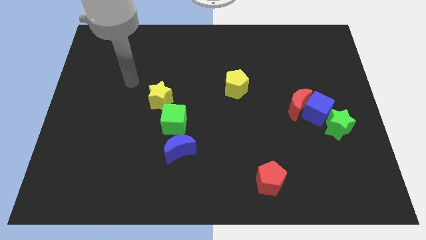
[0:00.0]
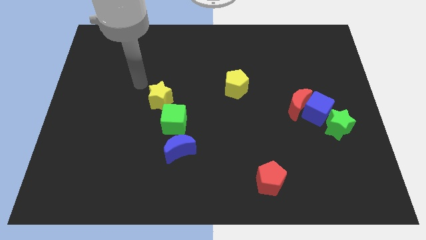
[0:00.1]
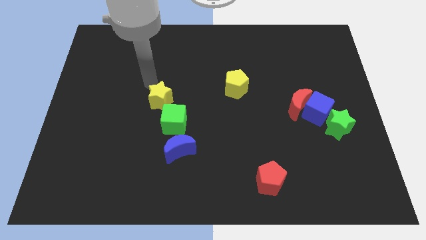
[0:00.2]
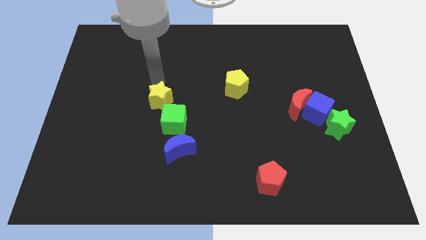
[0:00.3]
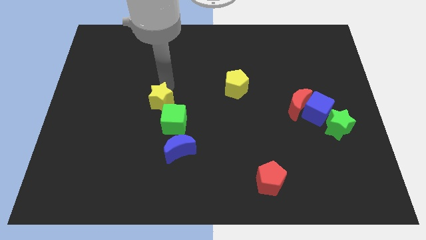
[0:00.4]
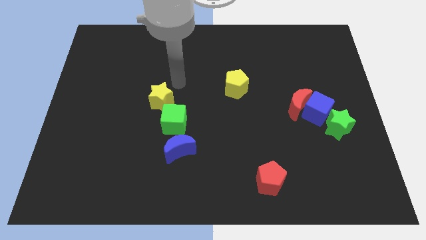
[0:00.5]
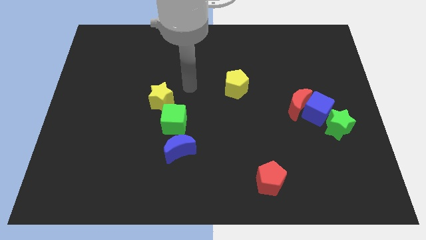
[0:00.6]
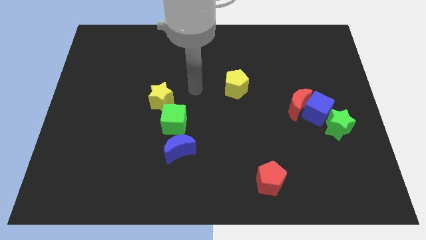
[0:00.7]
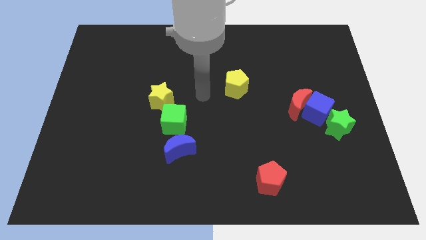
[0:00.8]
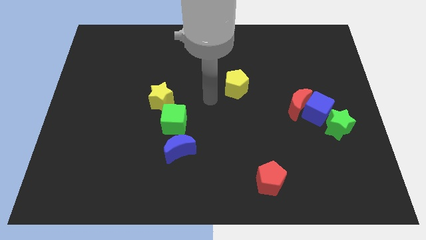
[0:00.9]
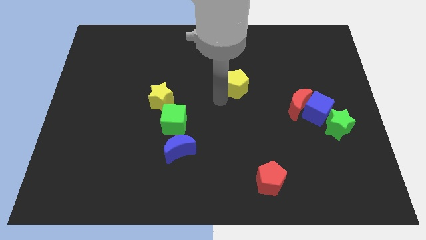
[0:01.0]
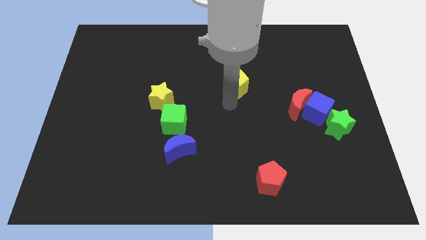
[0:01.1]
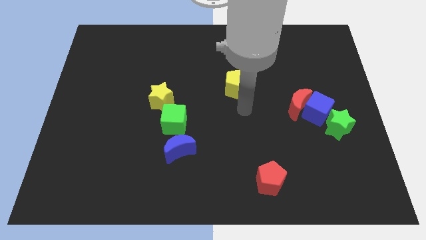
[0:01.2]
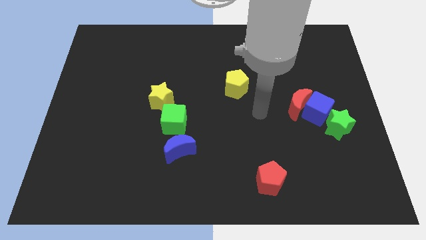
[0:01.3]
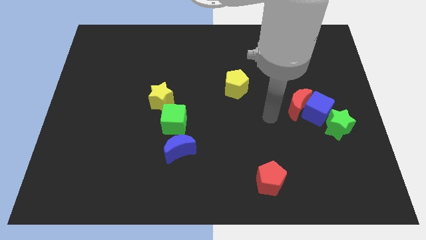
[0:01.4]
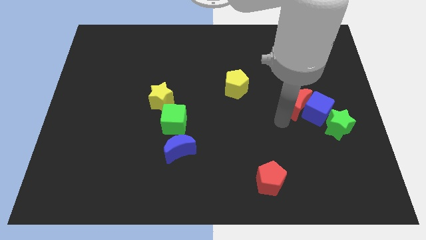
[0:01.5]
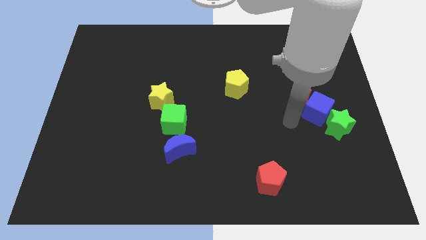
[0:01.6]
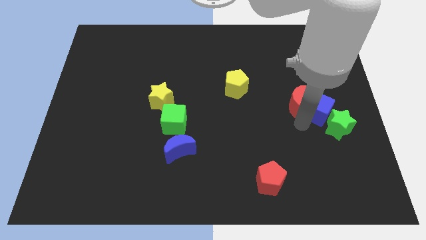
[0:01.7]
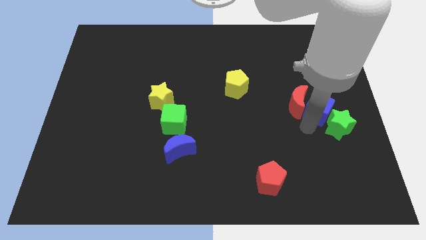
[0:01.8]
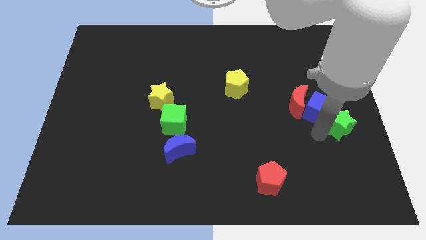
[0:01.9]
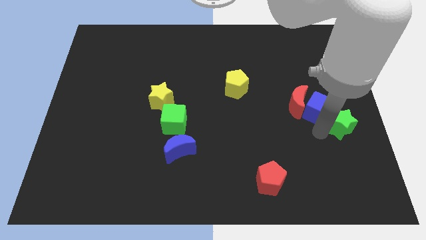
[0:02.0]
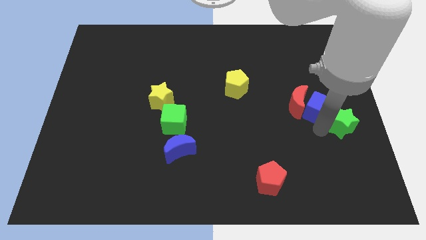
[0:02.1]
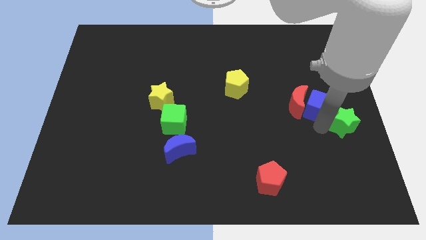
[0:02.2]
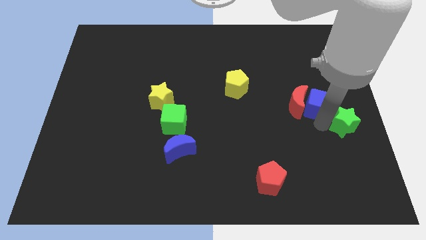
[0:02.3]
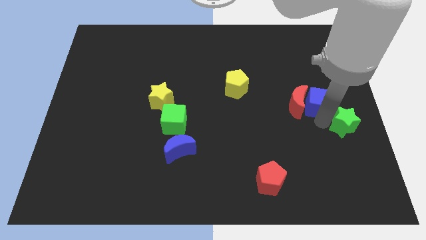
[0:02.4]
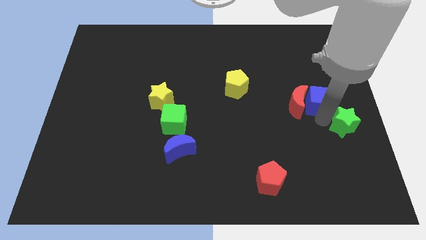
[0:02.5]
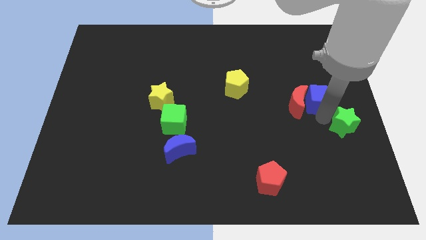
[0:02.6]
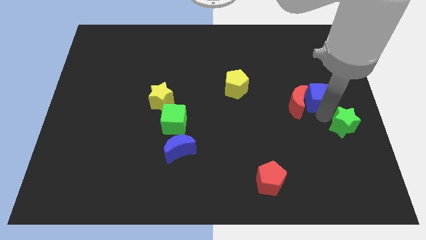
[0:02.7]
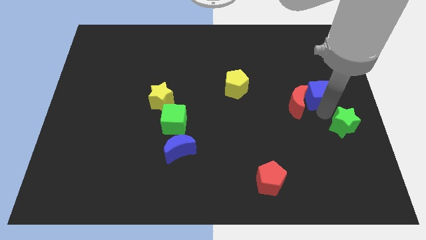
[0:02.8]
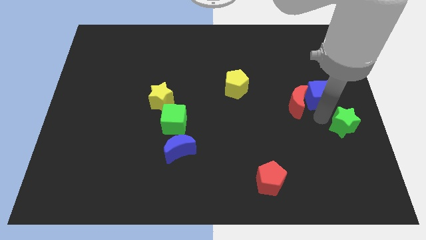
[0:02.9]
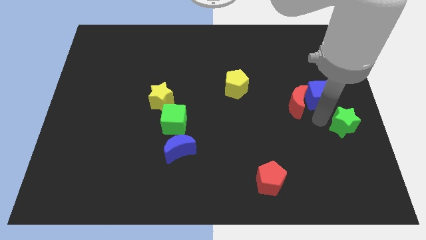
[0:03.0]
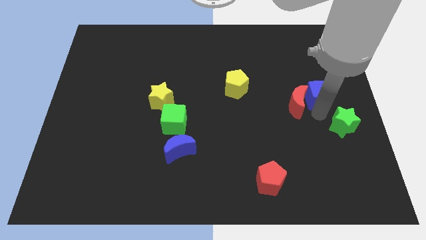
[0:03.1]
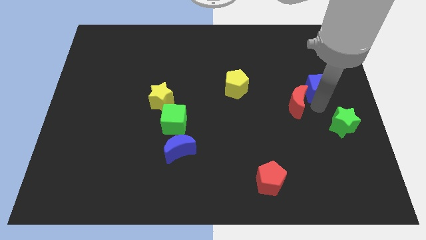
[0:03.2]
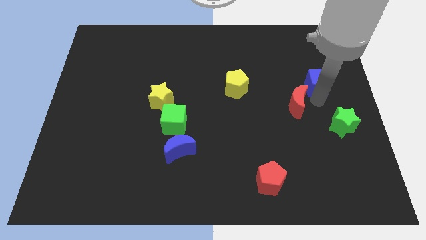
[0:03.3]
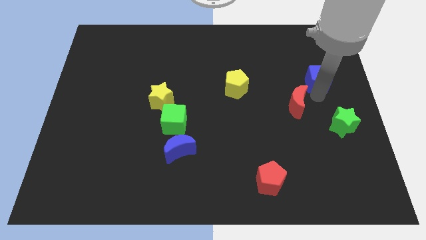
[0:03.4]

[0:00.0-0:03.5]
separate the blue cube from the red moon and green star

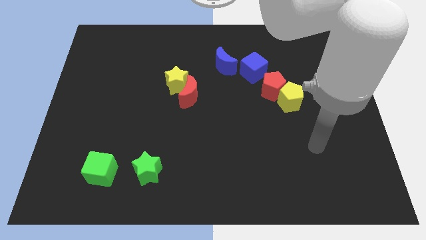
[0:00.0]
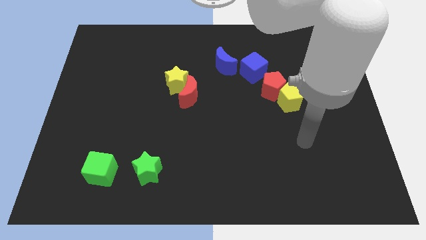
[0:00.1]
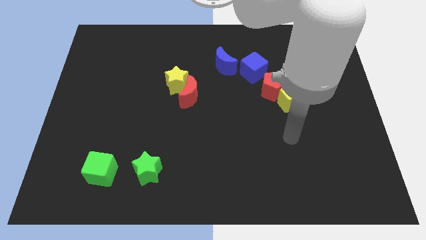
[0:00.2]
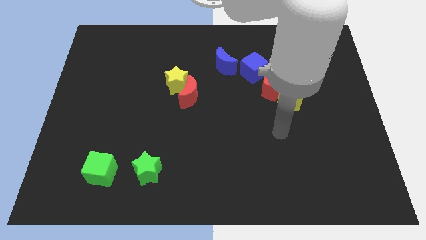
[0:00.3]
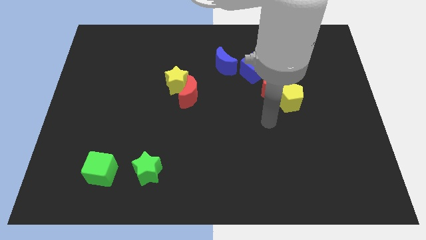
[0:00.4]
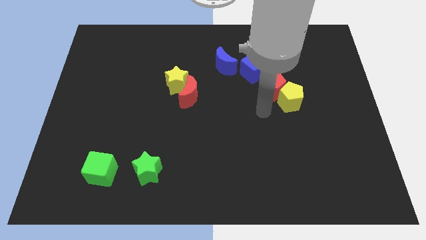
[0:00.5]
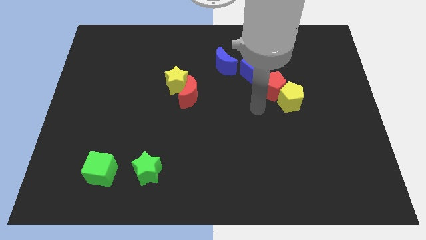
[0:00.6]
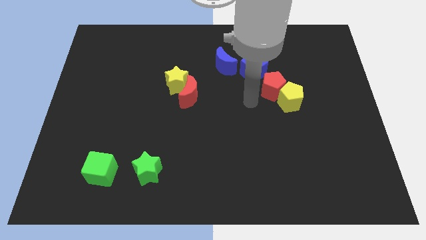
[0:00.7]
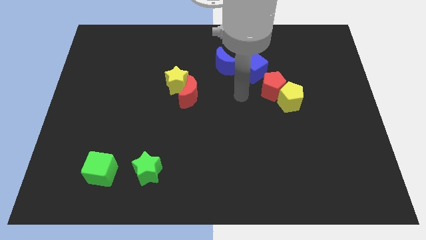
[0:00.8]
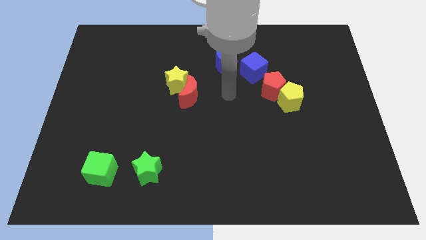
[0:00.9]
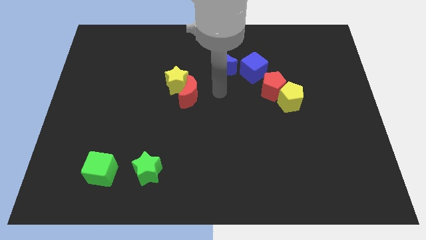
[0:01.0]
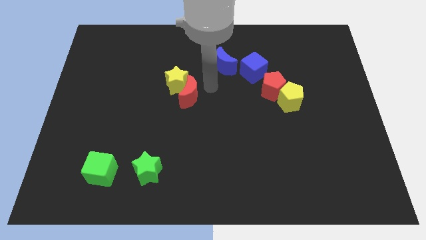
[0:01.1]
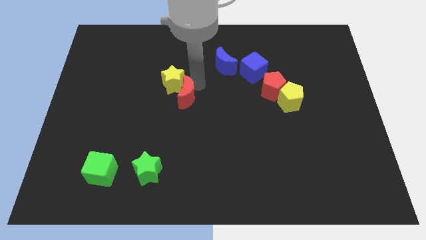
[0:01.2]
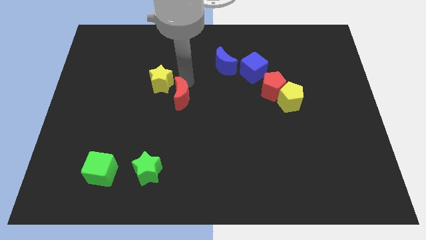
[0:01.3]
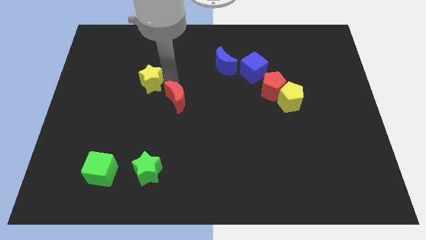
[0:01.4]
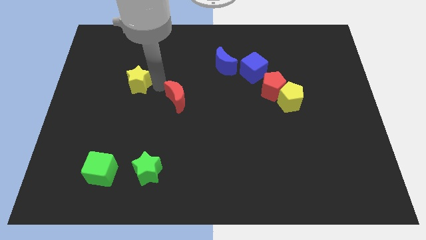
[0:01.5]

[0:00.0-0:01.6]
separate the red moon from the yellow star

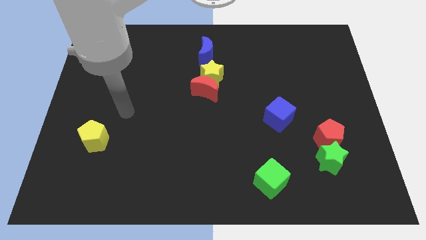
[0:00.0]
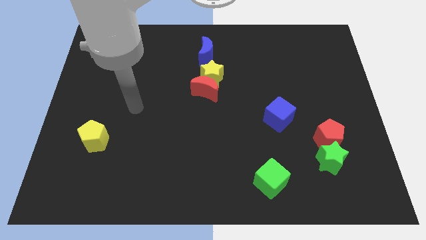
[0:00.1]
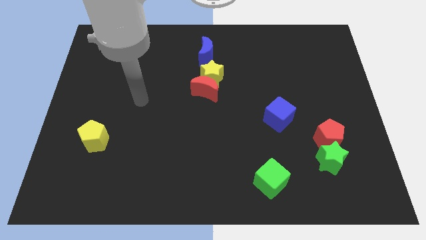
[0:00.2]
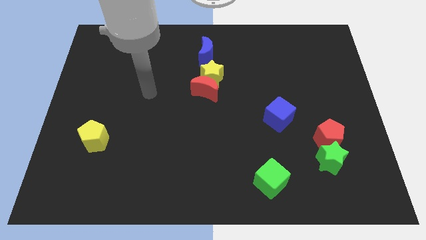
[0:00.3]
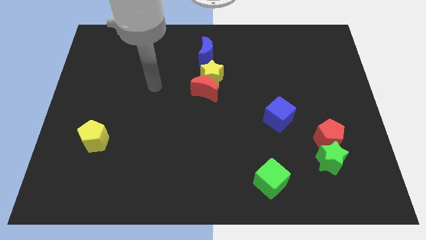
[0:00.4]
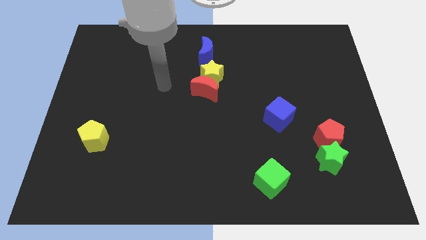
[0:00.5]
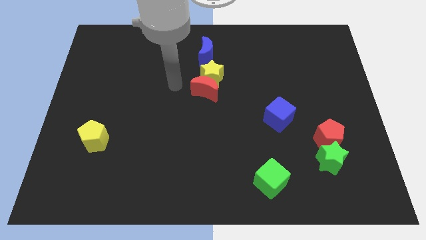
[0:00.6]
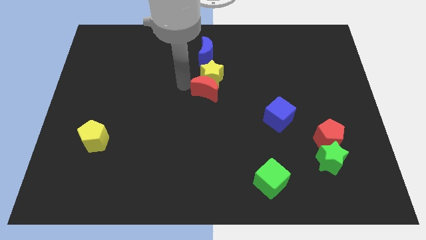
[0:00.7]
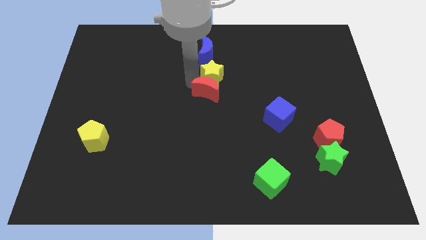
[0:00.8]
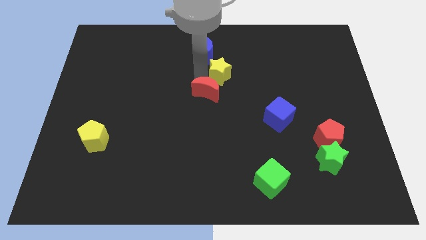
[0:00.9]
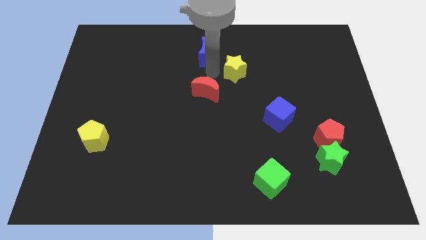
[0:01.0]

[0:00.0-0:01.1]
move the red moon away from the yellow star

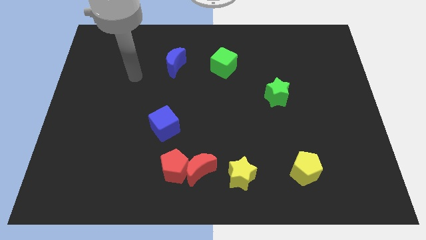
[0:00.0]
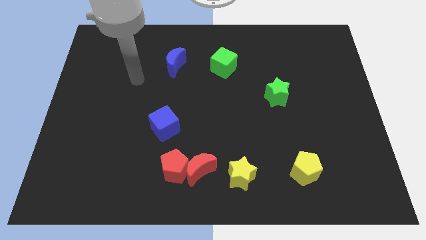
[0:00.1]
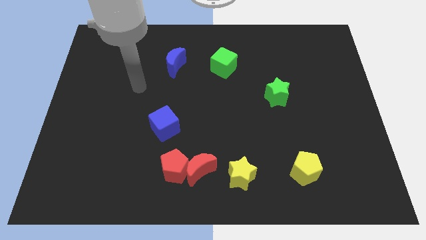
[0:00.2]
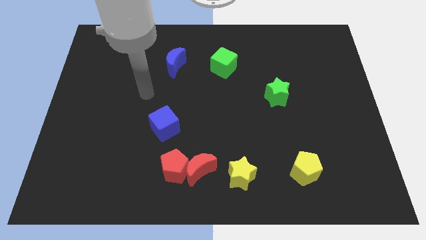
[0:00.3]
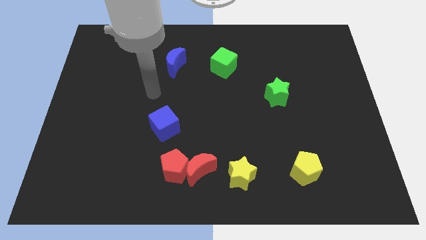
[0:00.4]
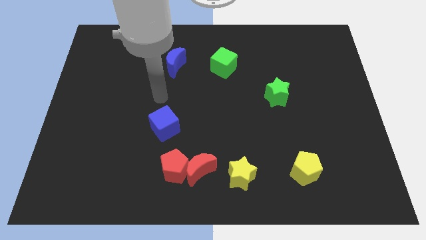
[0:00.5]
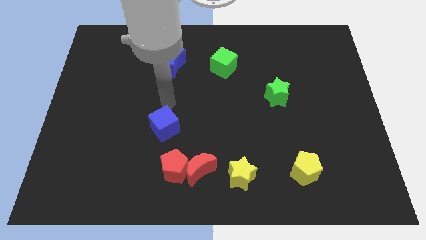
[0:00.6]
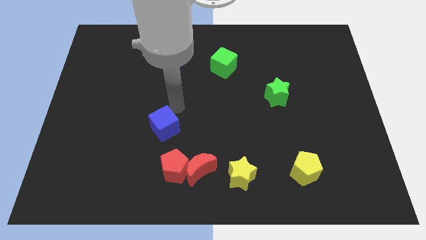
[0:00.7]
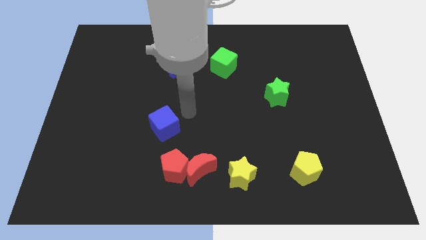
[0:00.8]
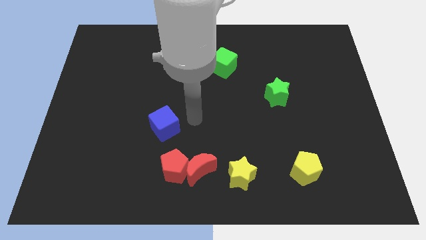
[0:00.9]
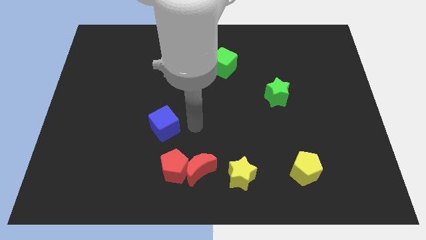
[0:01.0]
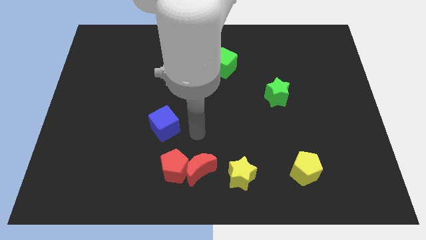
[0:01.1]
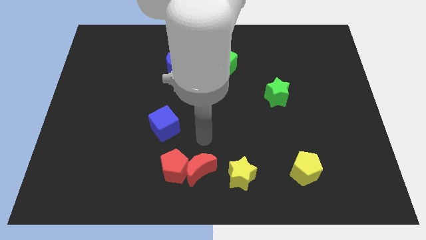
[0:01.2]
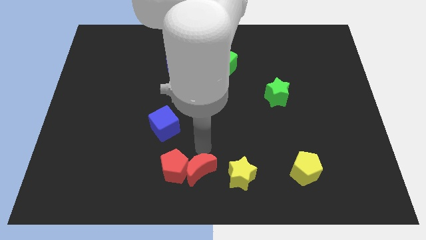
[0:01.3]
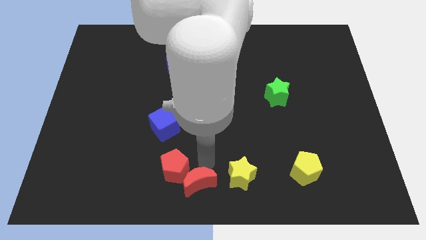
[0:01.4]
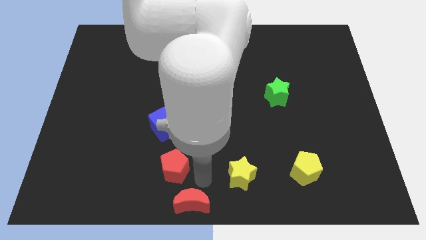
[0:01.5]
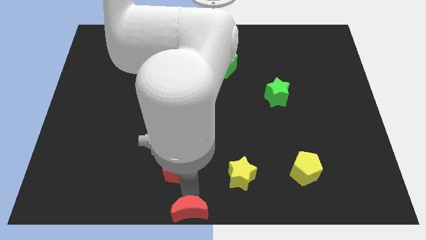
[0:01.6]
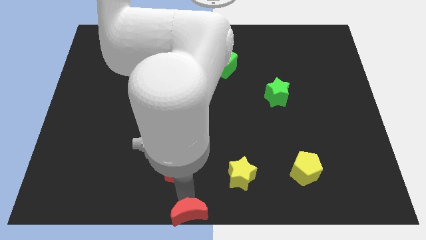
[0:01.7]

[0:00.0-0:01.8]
move the red pentagon away from the red moon

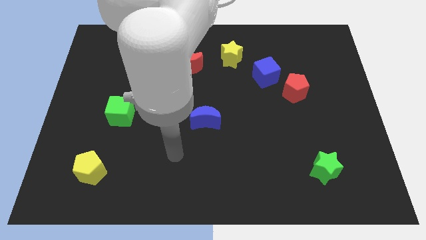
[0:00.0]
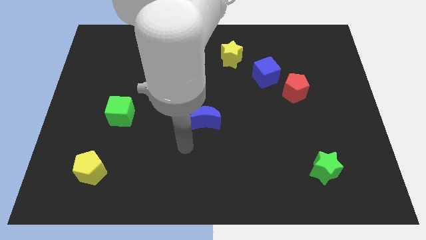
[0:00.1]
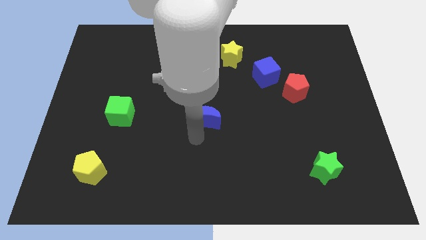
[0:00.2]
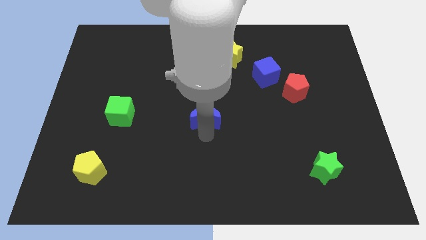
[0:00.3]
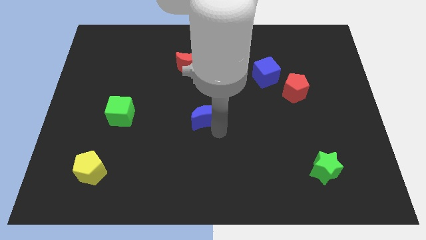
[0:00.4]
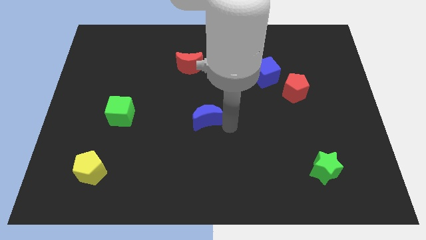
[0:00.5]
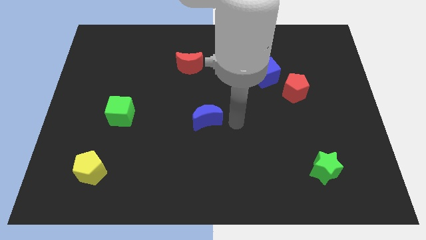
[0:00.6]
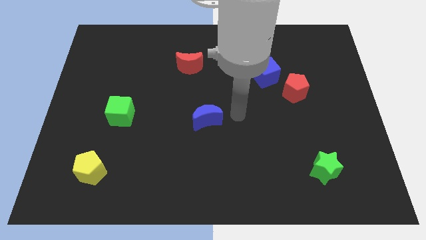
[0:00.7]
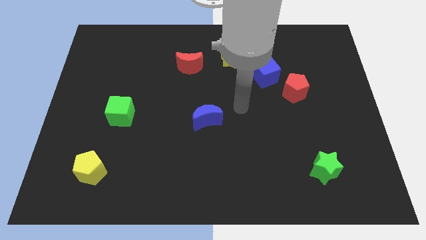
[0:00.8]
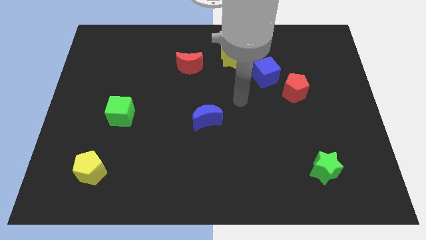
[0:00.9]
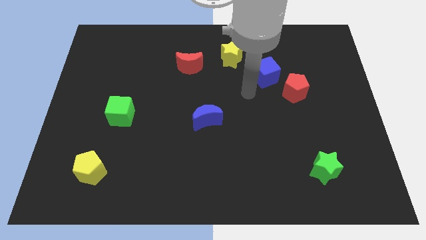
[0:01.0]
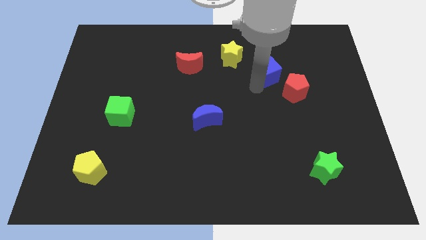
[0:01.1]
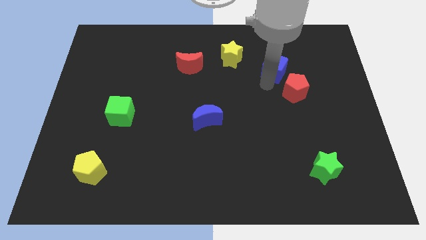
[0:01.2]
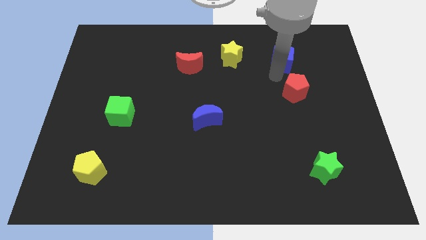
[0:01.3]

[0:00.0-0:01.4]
move the red pentagon away from the blue cube
